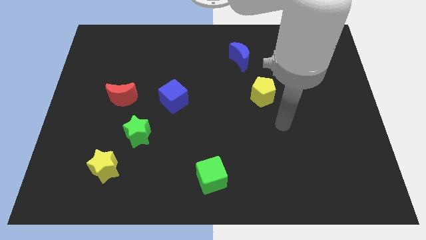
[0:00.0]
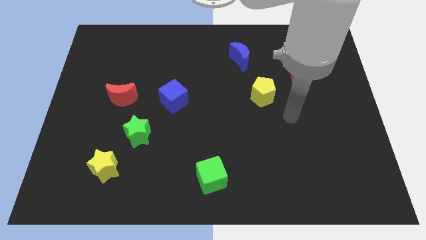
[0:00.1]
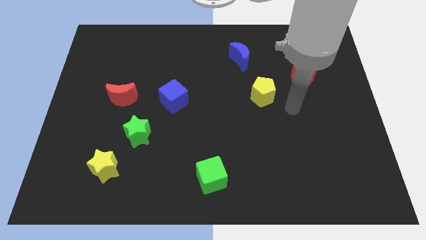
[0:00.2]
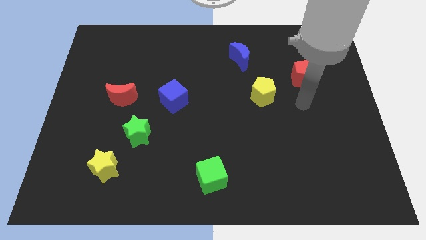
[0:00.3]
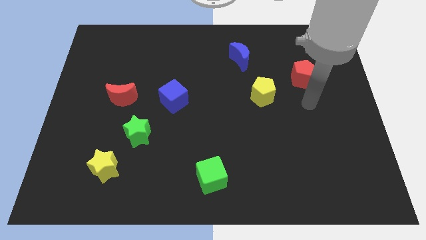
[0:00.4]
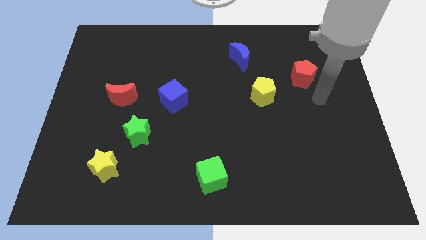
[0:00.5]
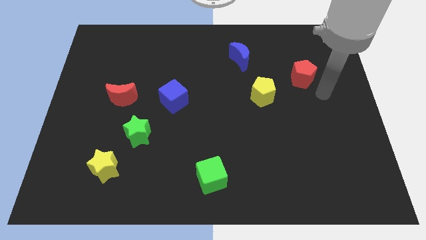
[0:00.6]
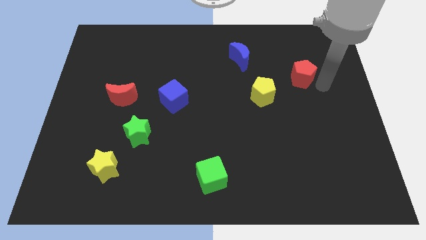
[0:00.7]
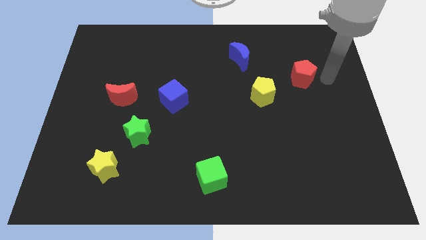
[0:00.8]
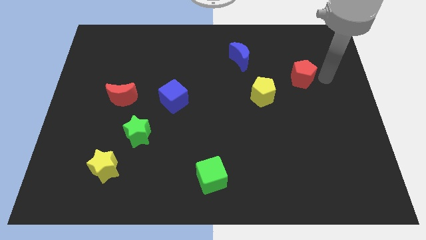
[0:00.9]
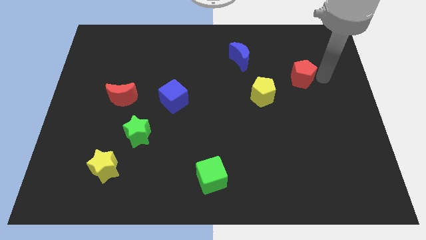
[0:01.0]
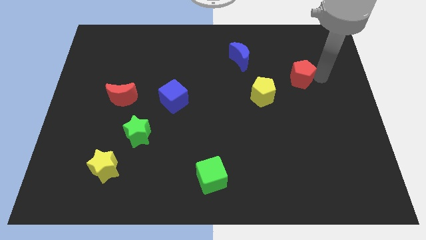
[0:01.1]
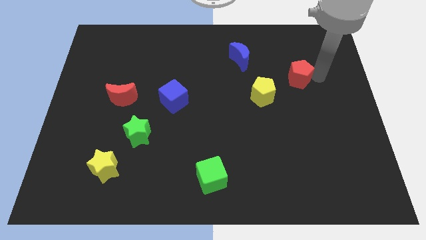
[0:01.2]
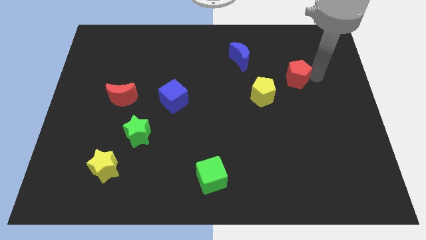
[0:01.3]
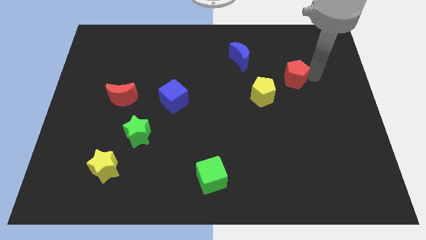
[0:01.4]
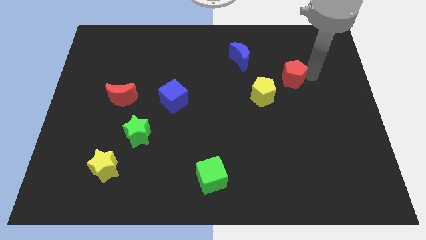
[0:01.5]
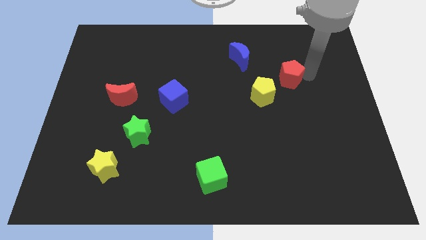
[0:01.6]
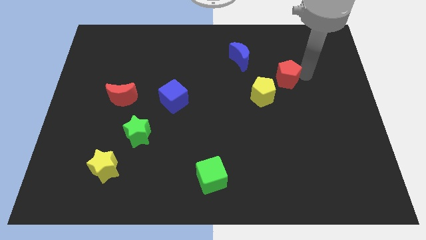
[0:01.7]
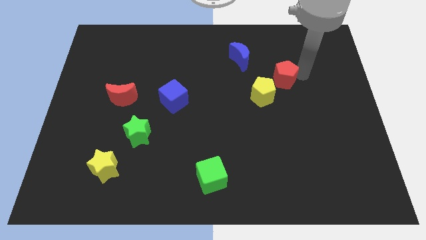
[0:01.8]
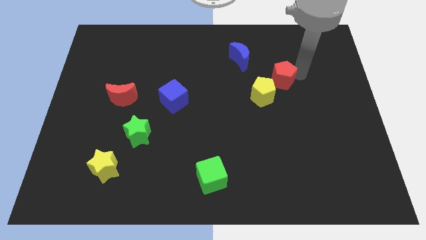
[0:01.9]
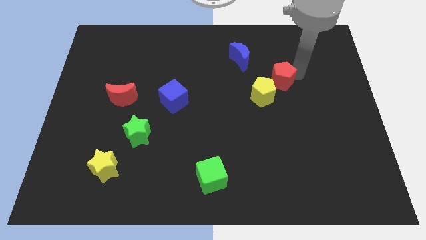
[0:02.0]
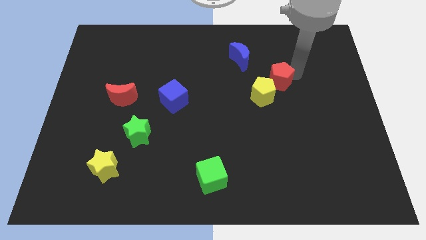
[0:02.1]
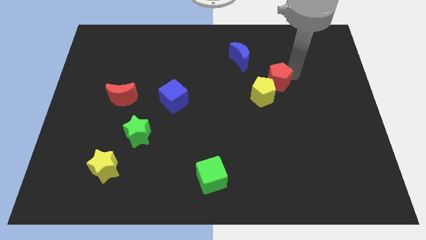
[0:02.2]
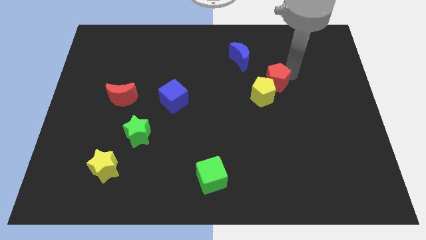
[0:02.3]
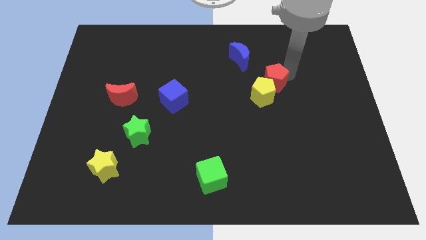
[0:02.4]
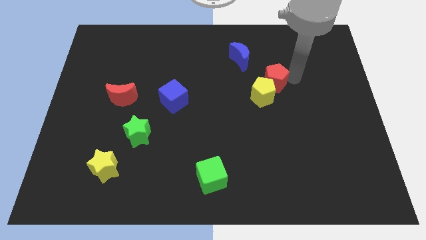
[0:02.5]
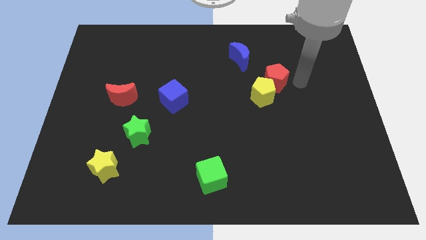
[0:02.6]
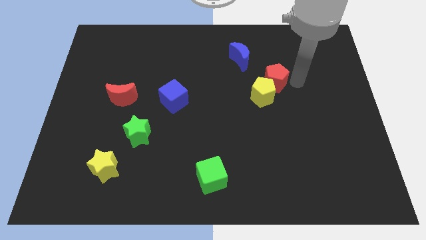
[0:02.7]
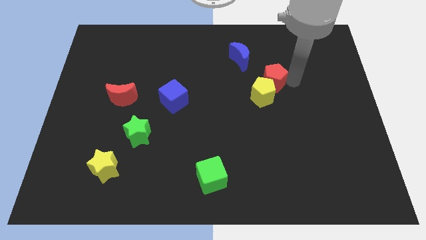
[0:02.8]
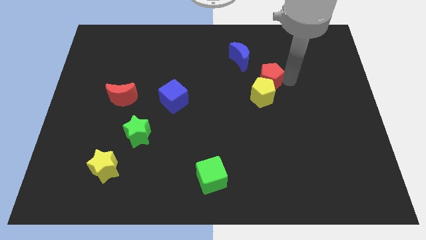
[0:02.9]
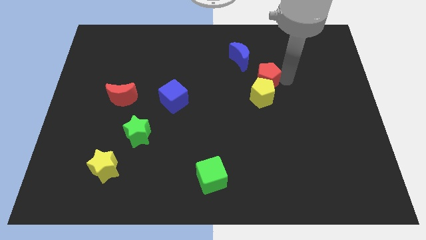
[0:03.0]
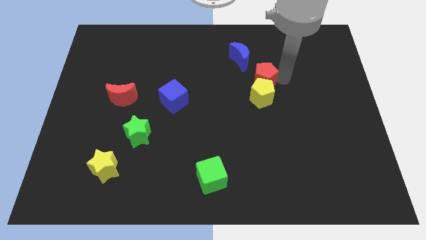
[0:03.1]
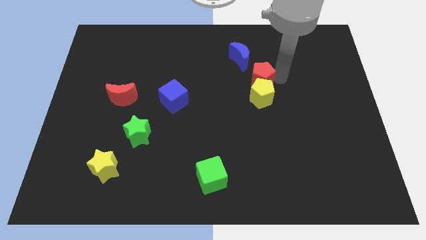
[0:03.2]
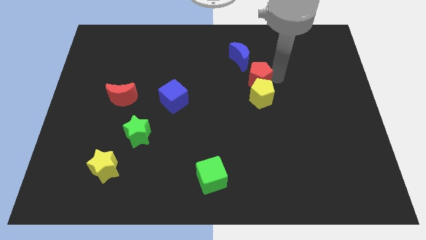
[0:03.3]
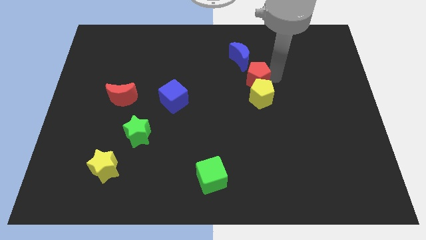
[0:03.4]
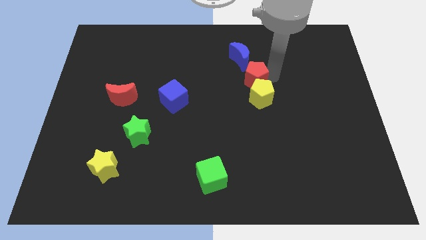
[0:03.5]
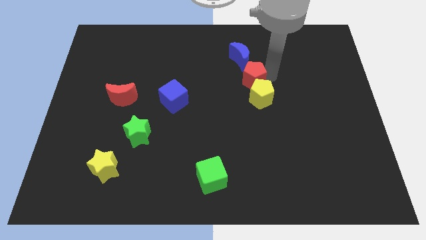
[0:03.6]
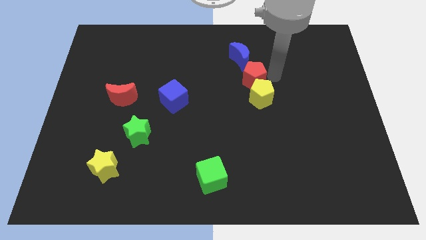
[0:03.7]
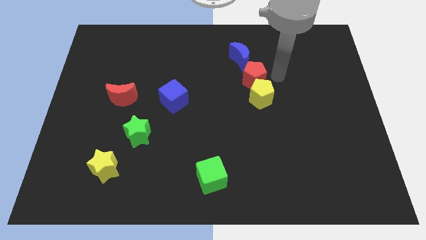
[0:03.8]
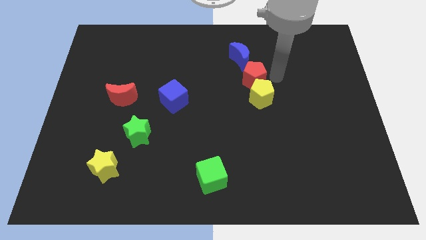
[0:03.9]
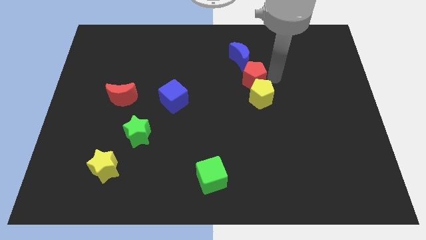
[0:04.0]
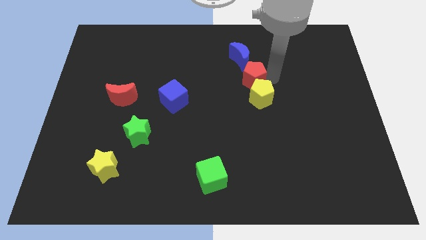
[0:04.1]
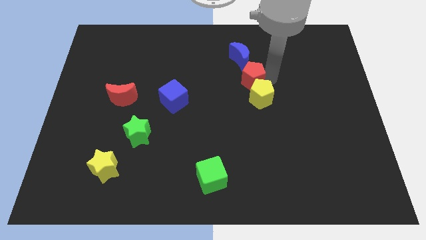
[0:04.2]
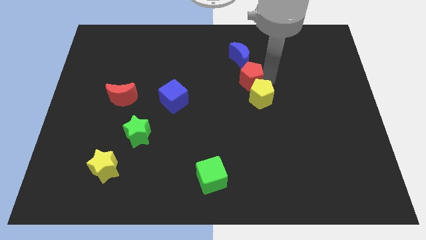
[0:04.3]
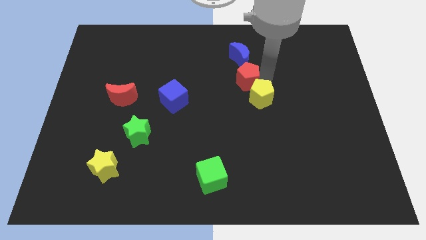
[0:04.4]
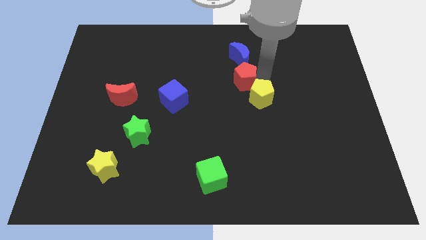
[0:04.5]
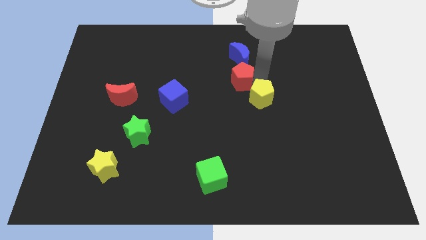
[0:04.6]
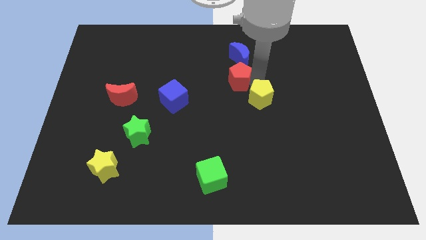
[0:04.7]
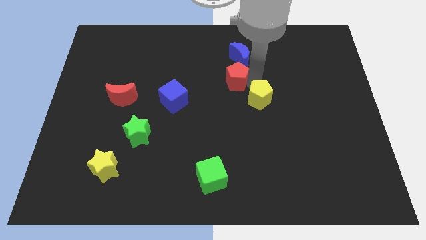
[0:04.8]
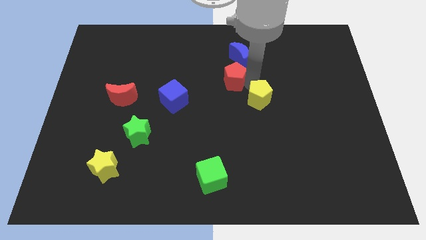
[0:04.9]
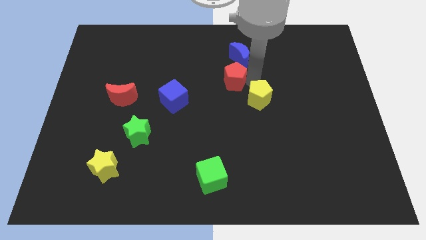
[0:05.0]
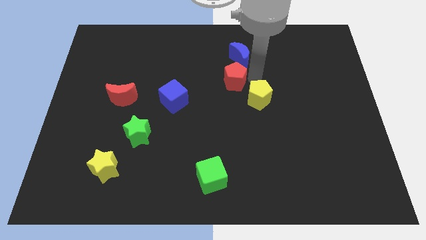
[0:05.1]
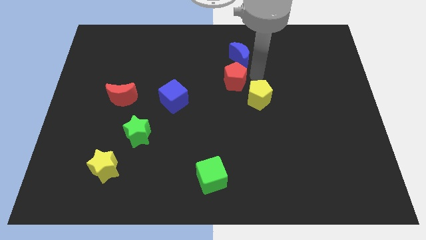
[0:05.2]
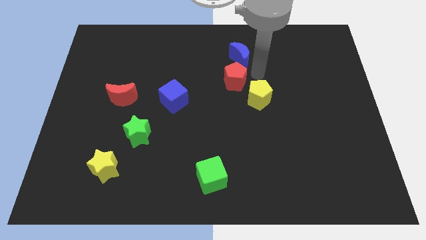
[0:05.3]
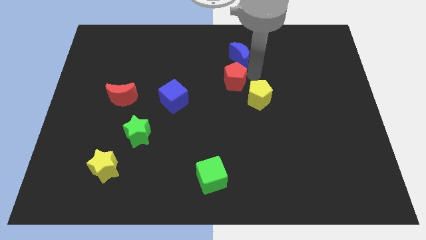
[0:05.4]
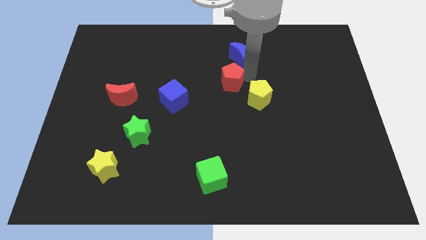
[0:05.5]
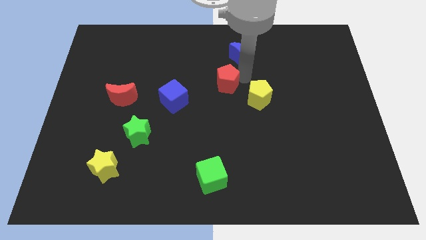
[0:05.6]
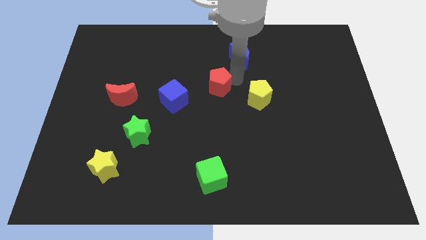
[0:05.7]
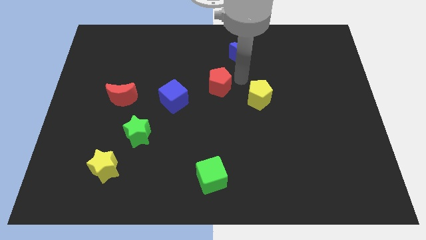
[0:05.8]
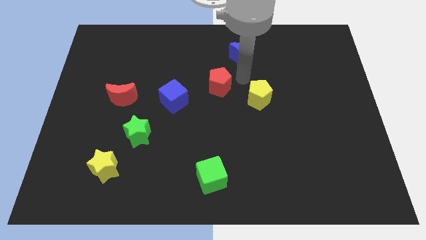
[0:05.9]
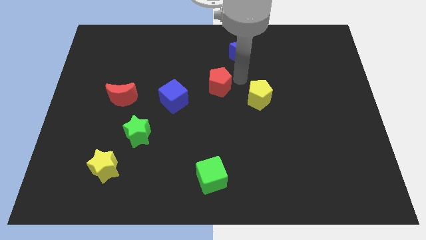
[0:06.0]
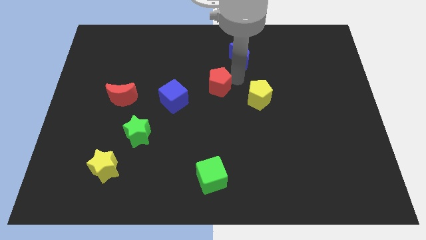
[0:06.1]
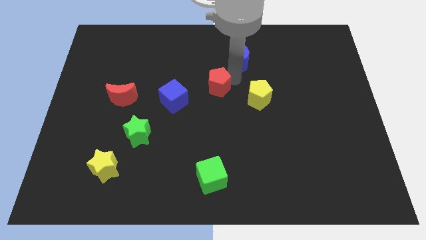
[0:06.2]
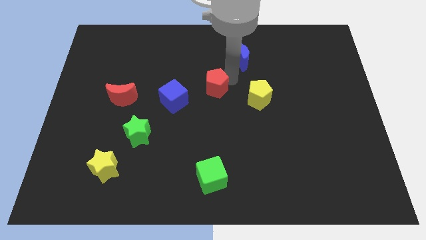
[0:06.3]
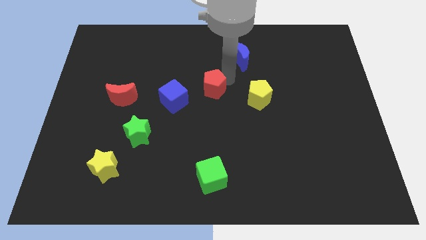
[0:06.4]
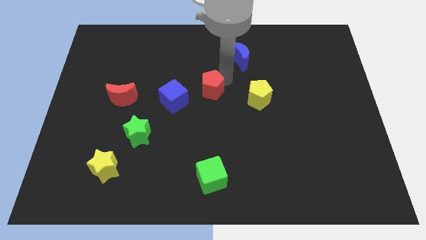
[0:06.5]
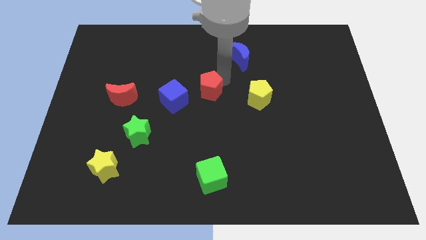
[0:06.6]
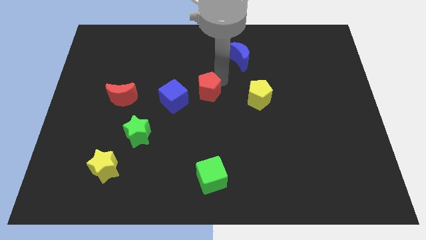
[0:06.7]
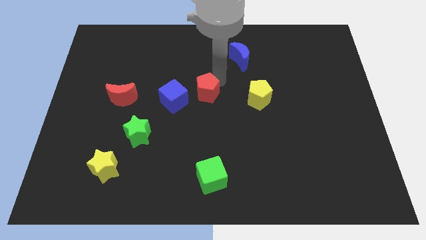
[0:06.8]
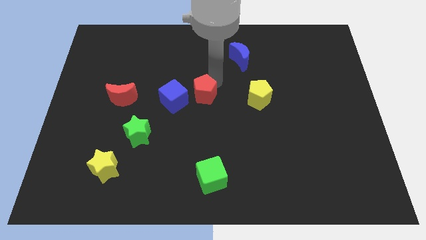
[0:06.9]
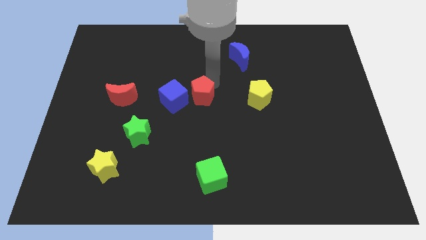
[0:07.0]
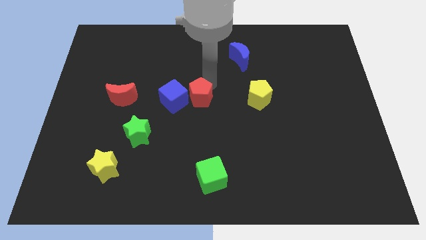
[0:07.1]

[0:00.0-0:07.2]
slide the red pentagon next to the blue cube

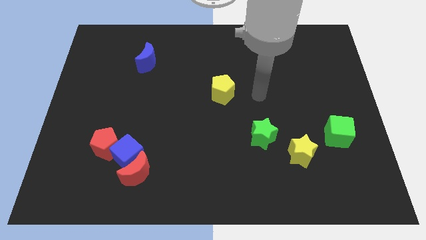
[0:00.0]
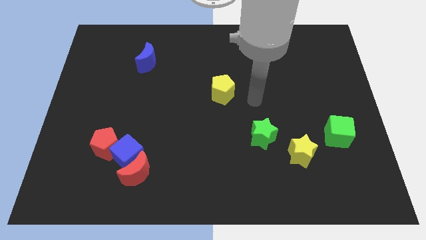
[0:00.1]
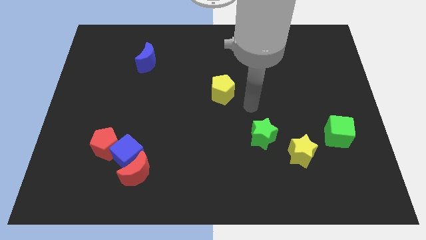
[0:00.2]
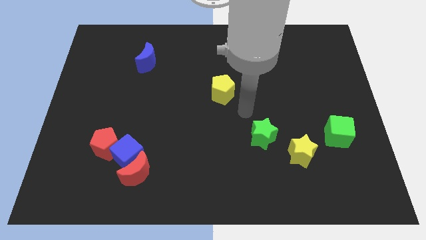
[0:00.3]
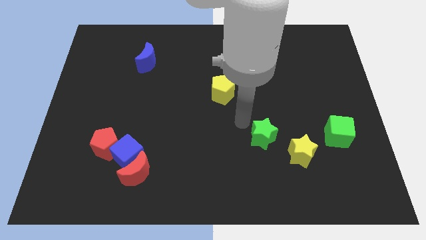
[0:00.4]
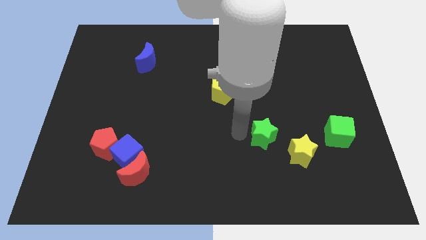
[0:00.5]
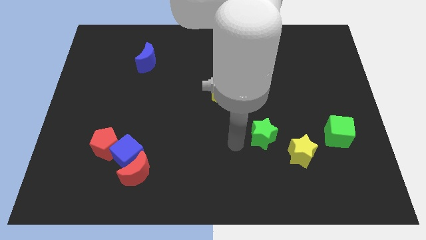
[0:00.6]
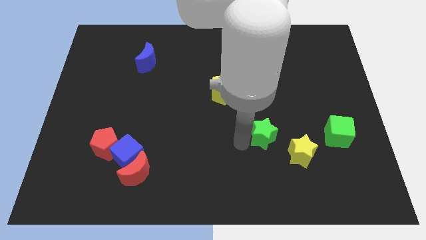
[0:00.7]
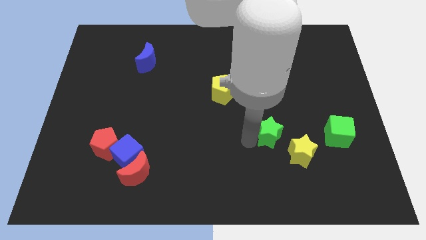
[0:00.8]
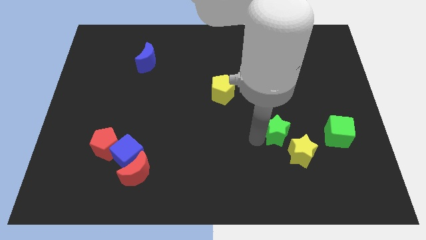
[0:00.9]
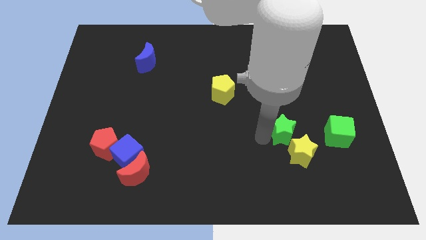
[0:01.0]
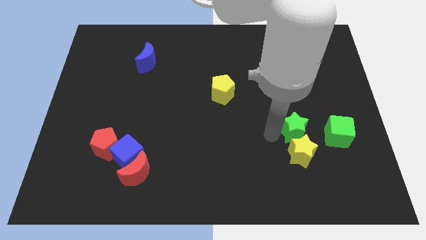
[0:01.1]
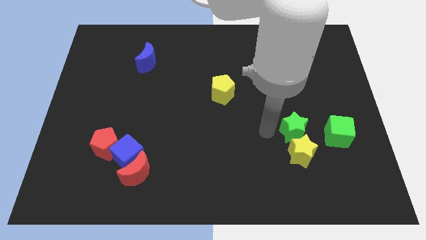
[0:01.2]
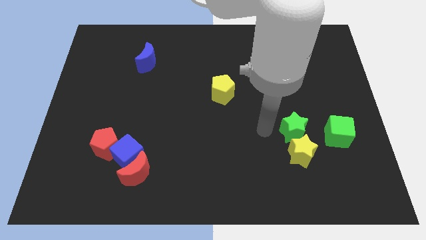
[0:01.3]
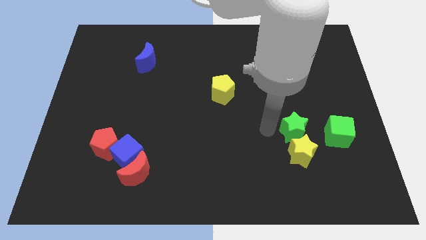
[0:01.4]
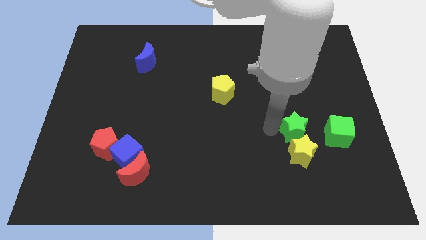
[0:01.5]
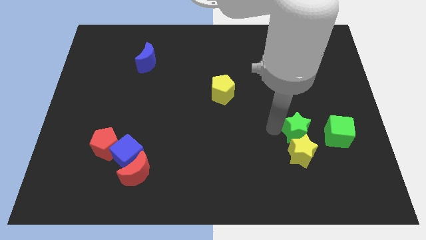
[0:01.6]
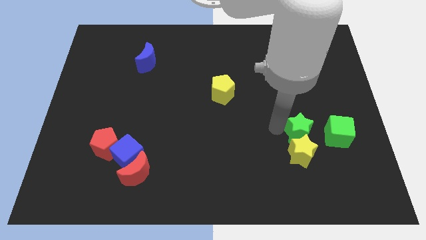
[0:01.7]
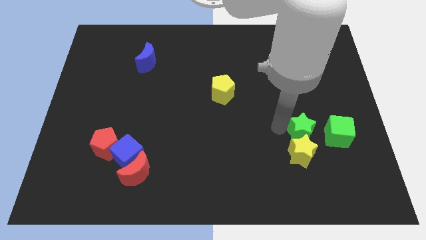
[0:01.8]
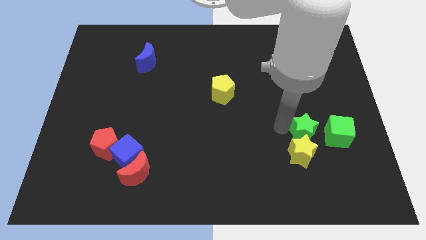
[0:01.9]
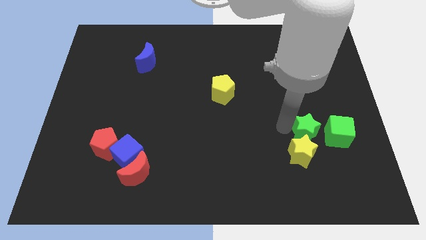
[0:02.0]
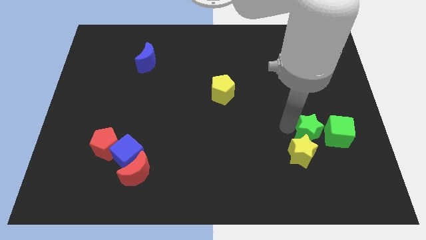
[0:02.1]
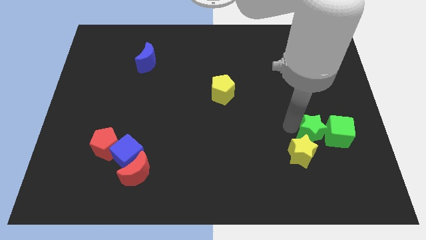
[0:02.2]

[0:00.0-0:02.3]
put the green star to the green cube
